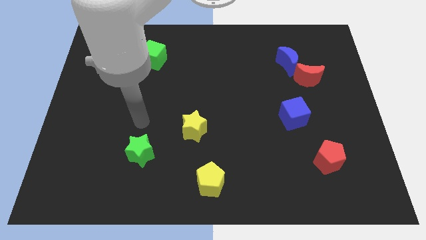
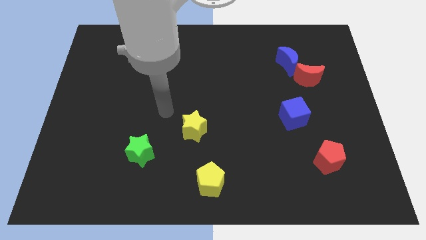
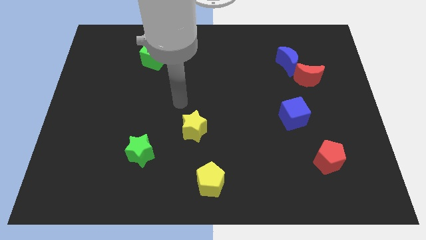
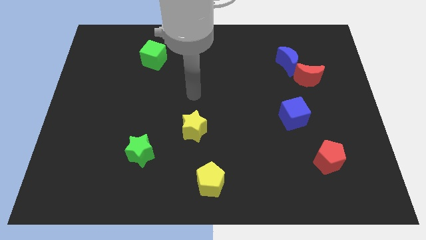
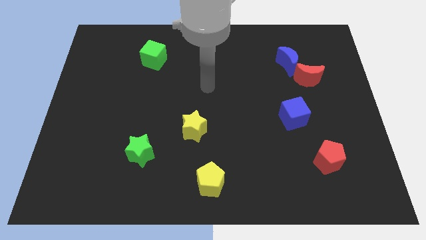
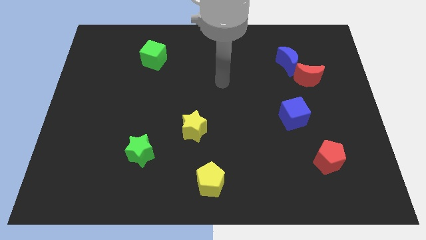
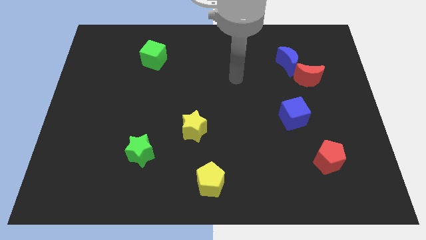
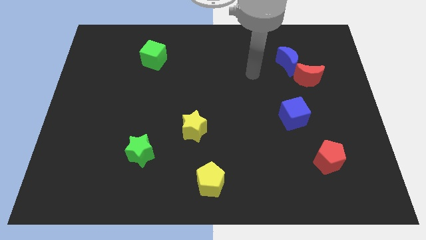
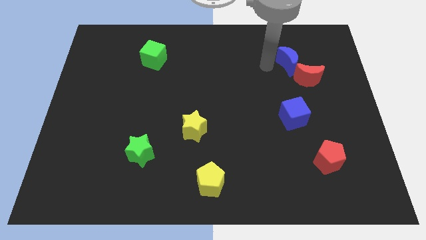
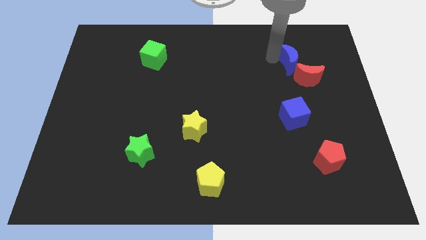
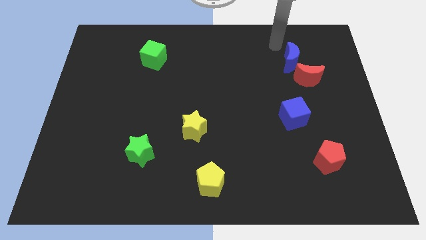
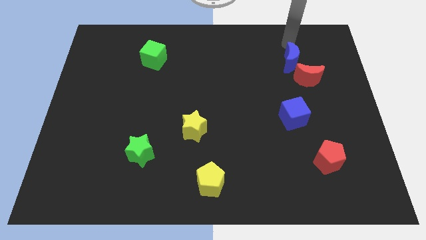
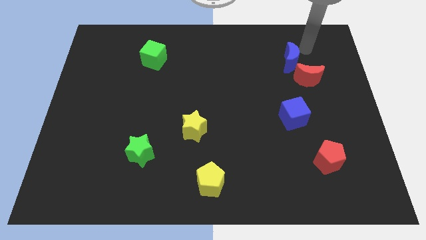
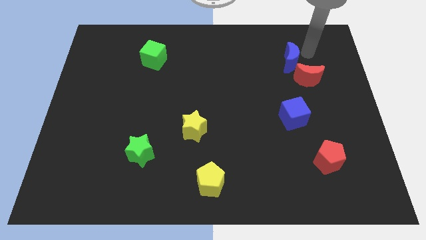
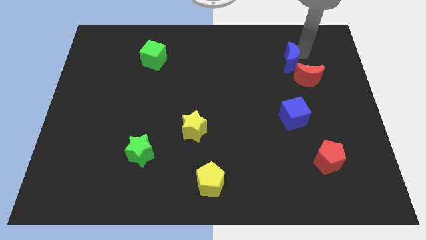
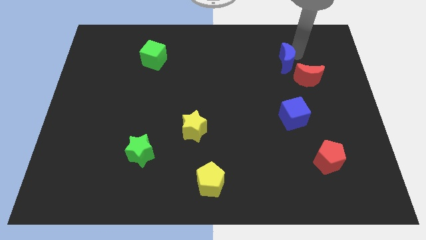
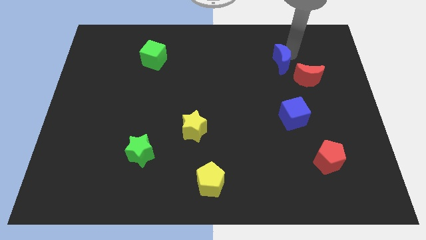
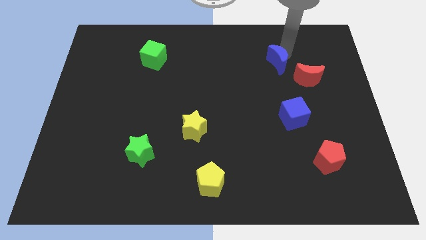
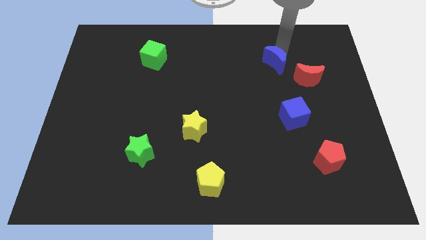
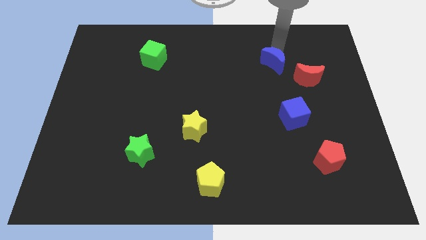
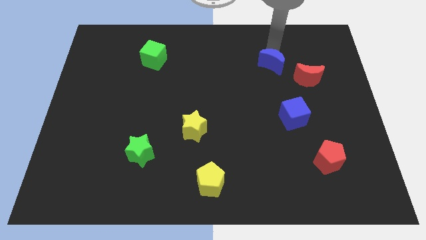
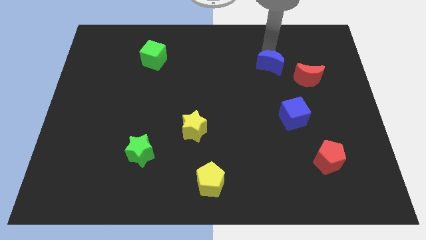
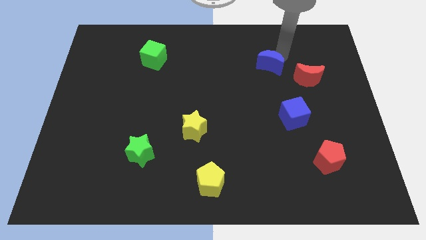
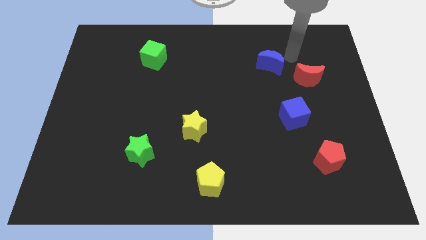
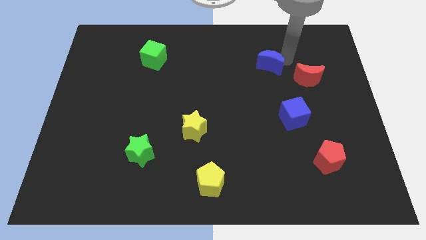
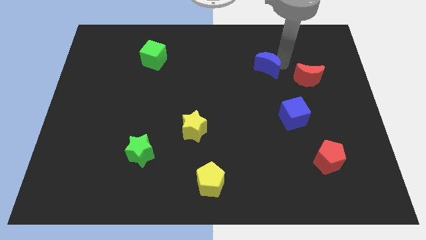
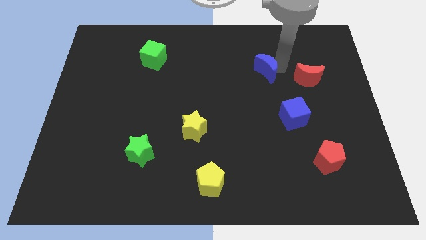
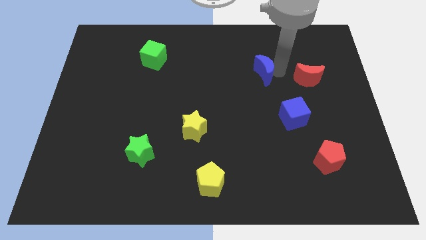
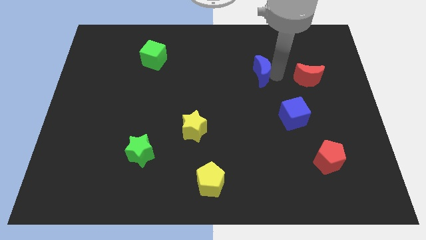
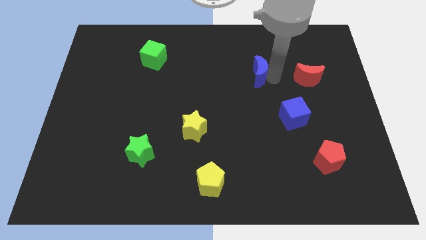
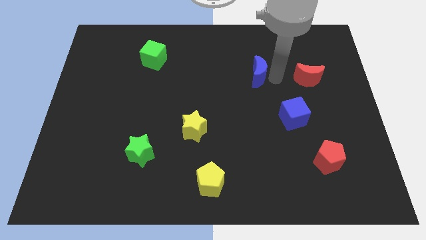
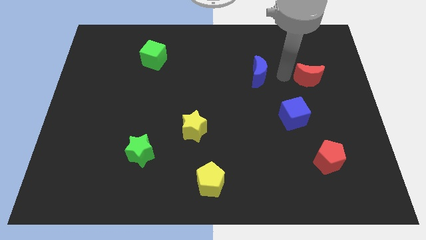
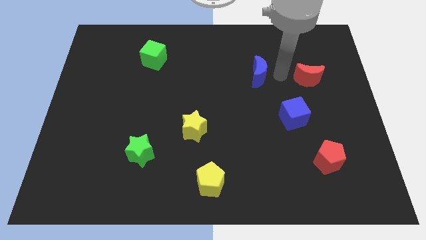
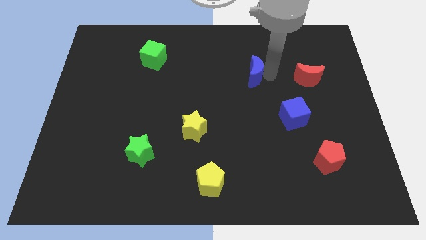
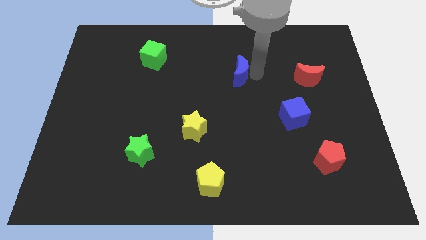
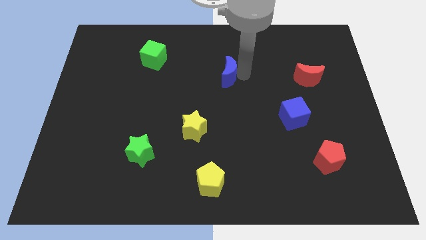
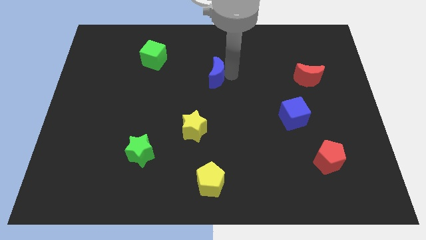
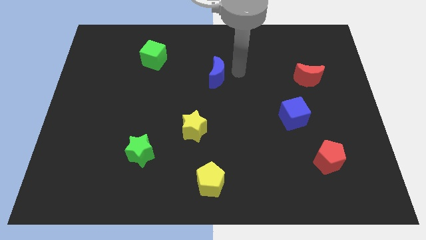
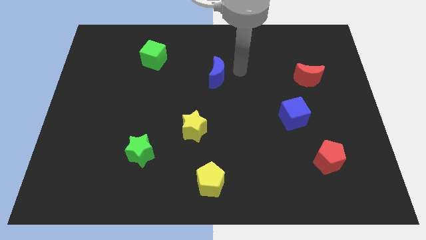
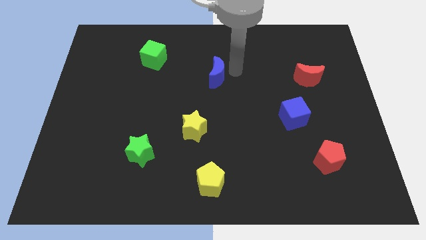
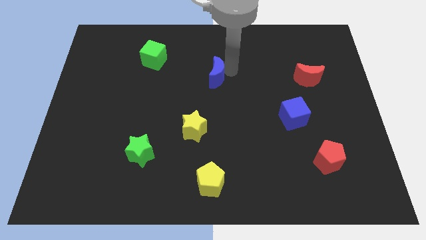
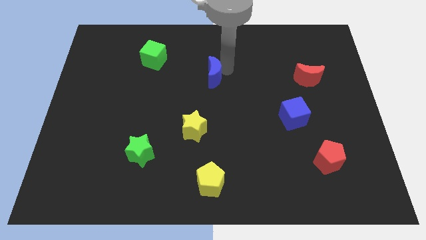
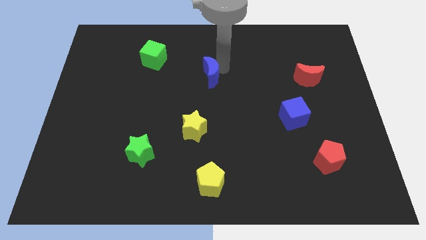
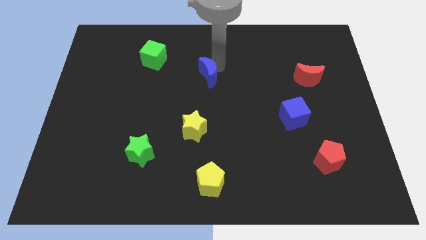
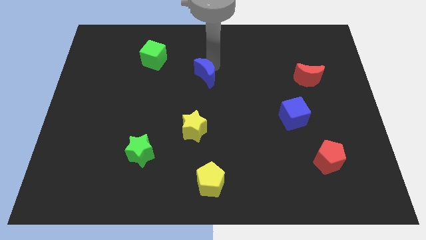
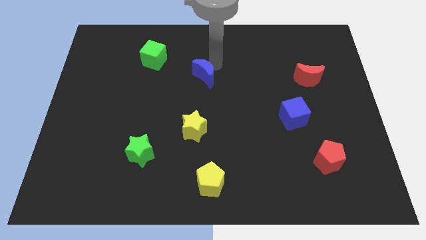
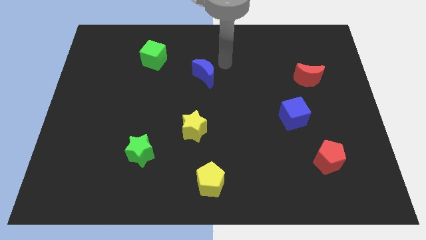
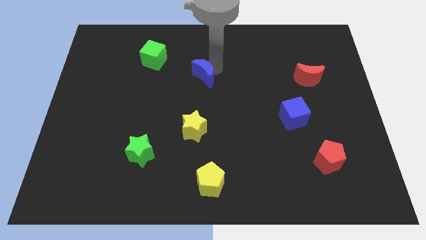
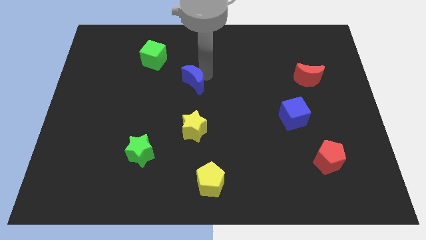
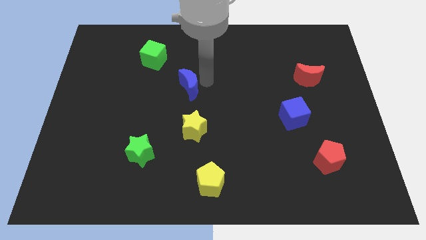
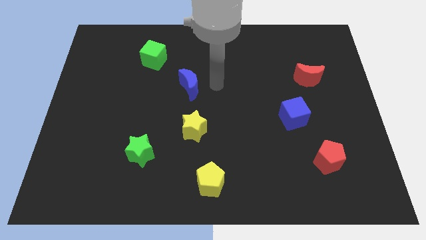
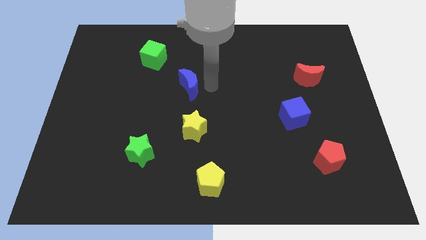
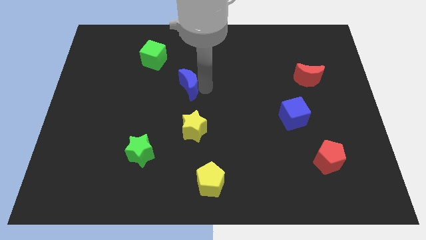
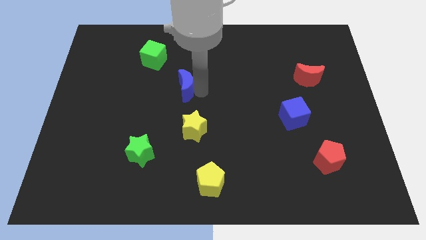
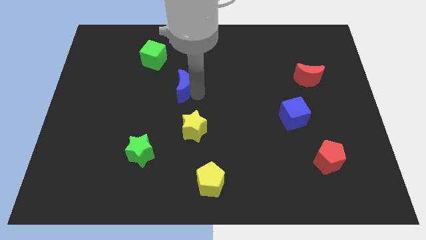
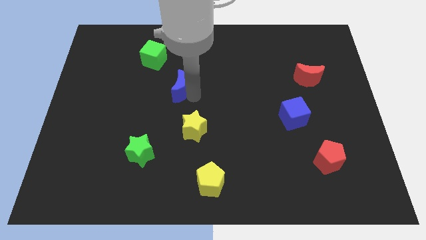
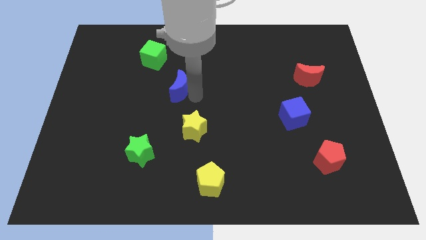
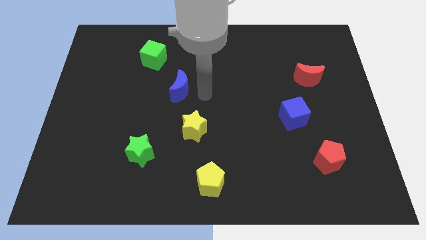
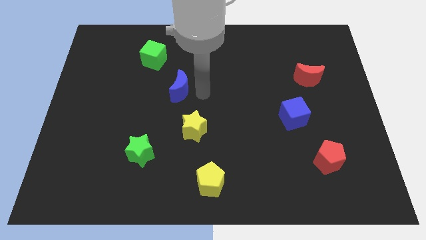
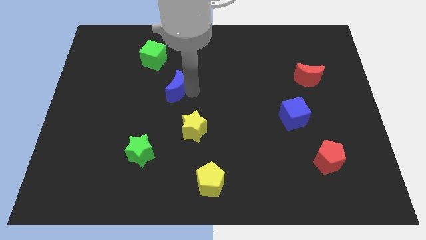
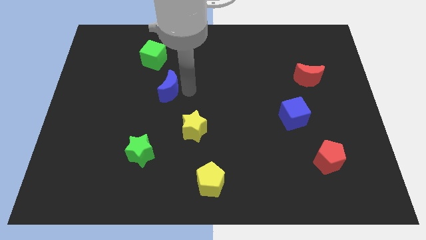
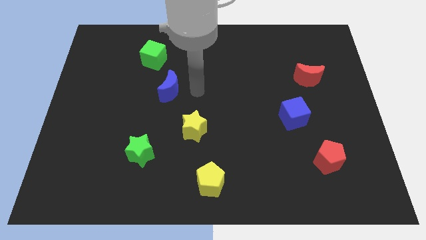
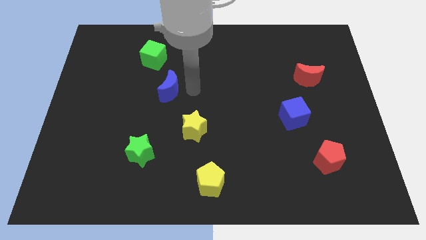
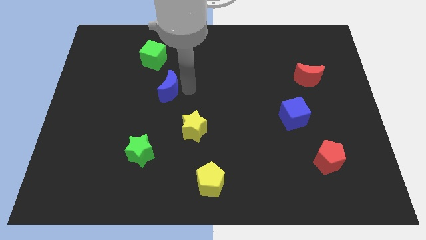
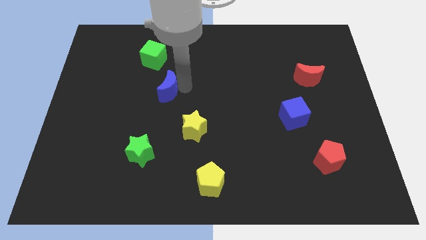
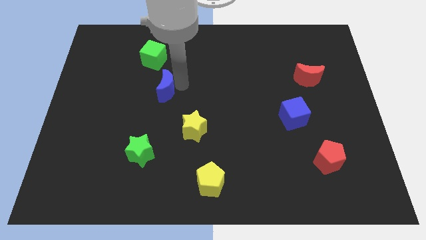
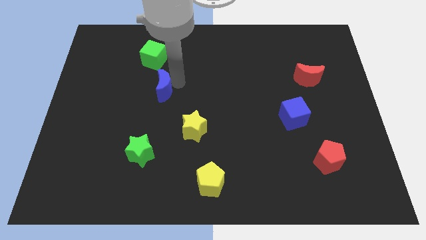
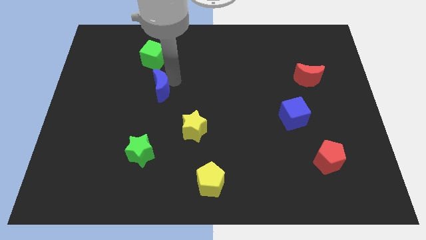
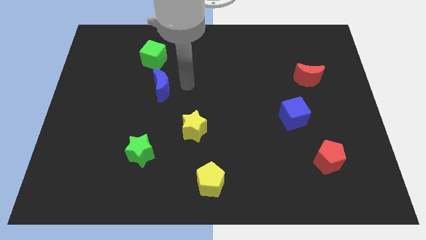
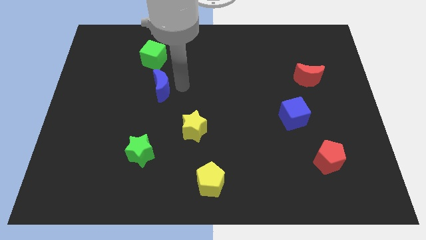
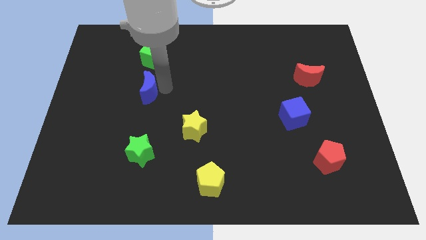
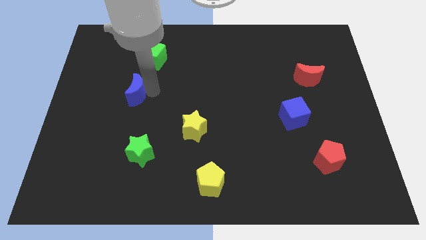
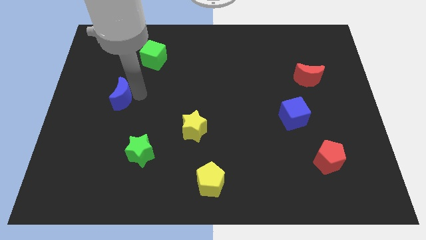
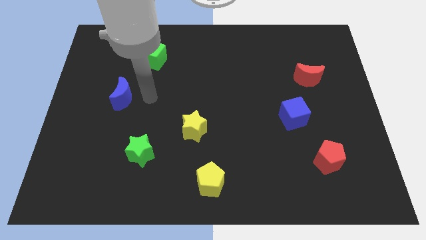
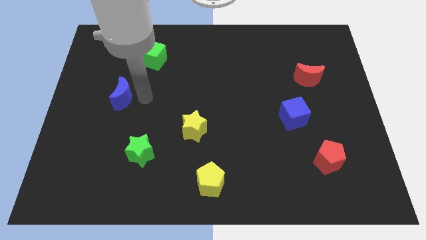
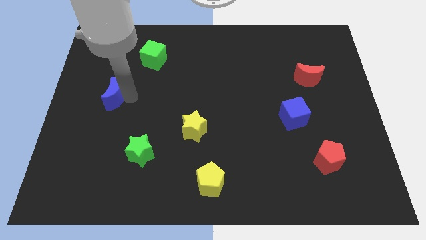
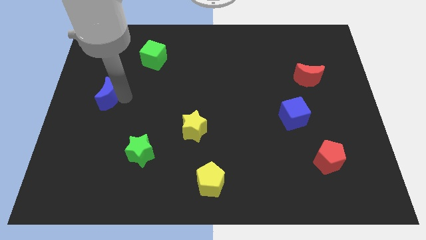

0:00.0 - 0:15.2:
move the blue moon to the center left
